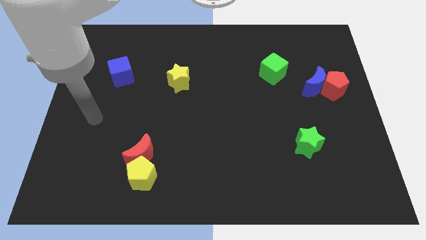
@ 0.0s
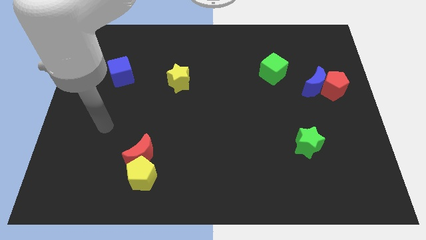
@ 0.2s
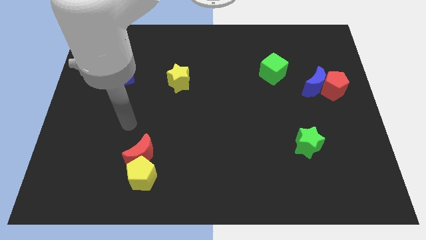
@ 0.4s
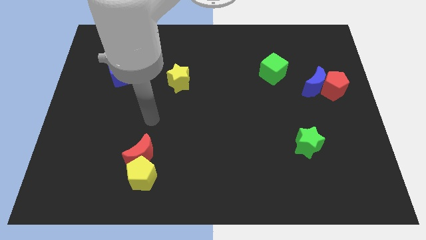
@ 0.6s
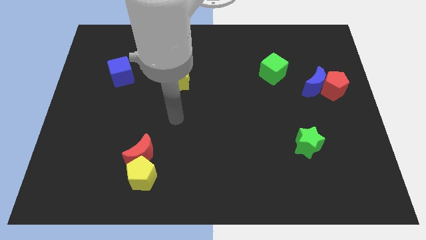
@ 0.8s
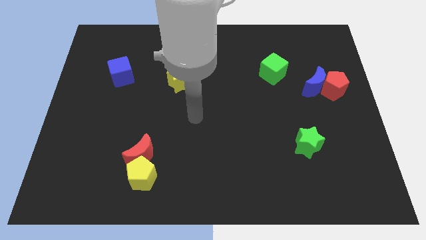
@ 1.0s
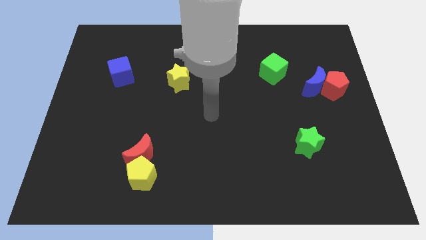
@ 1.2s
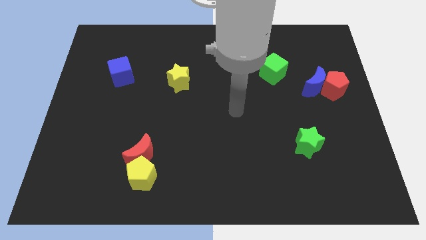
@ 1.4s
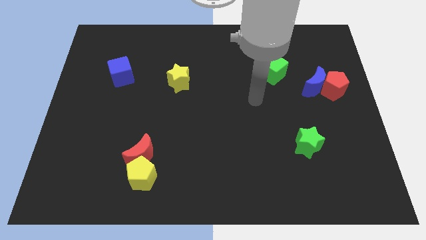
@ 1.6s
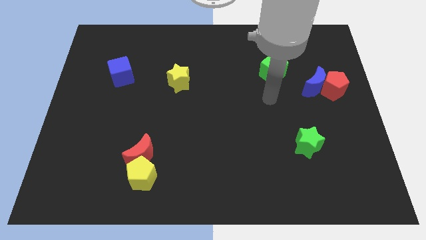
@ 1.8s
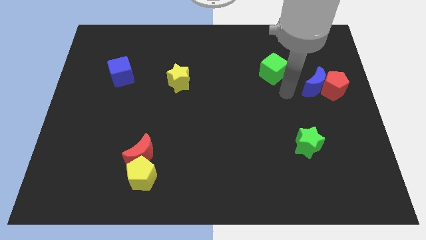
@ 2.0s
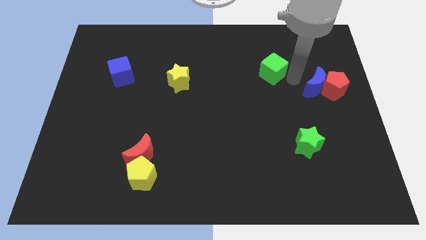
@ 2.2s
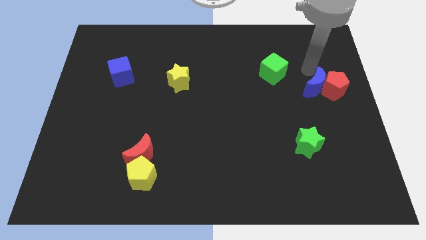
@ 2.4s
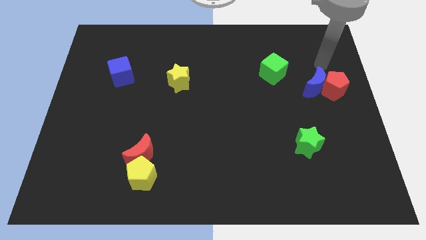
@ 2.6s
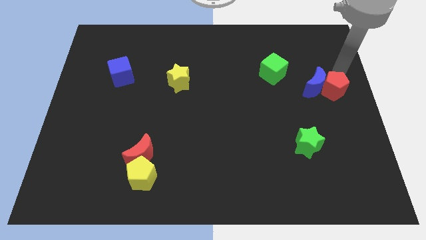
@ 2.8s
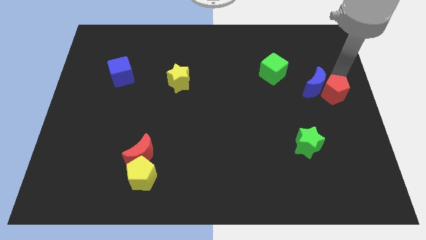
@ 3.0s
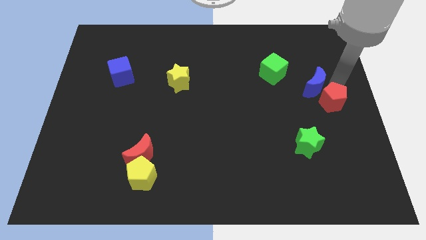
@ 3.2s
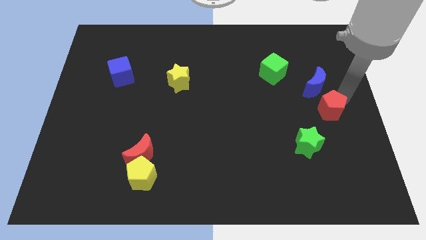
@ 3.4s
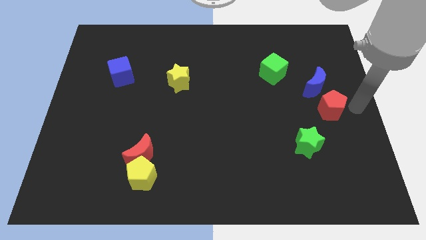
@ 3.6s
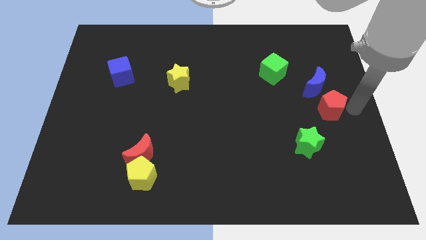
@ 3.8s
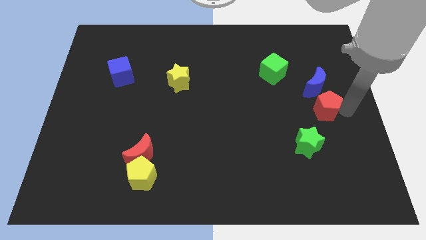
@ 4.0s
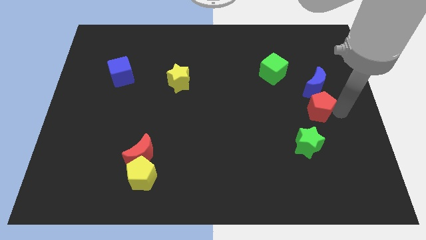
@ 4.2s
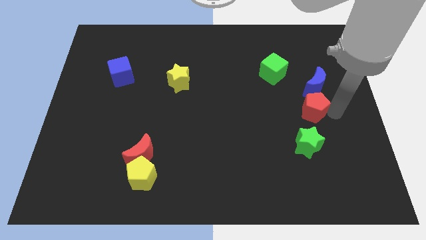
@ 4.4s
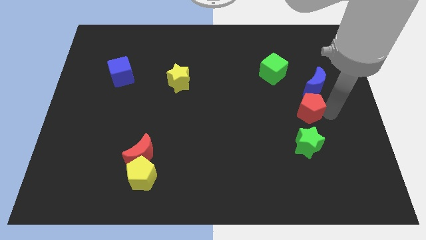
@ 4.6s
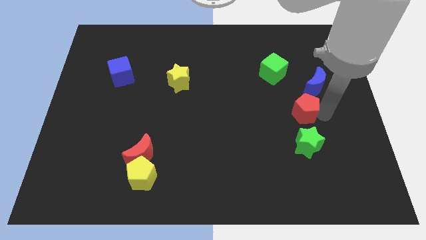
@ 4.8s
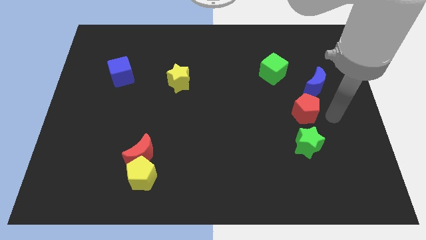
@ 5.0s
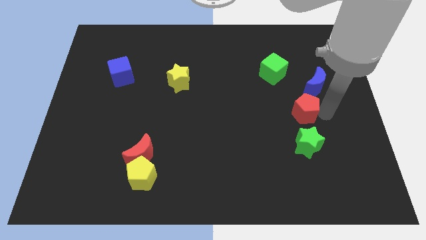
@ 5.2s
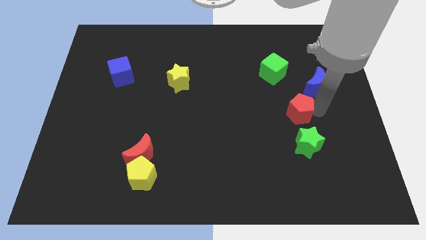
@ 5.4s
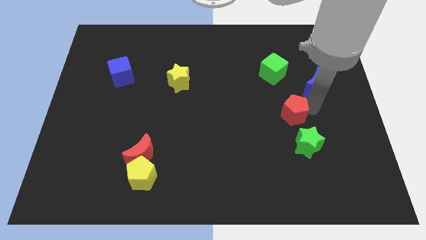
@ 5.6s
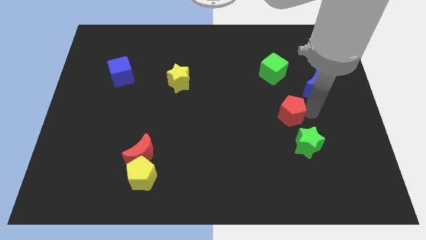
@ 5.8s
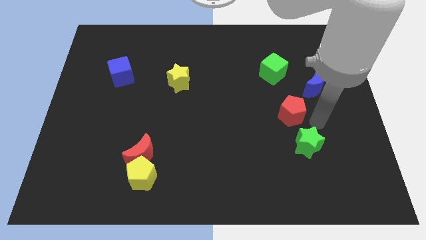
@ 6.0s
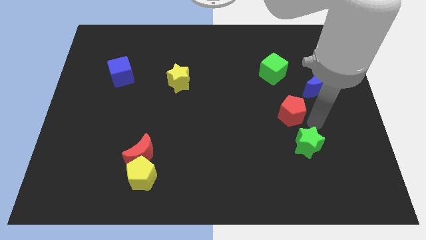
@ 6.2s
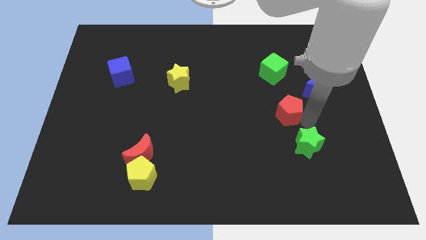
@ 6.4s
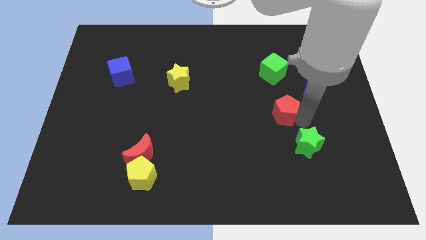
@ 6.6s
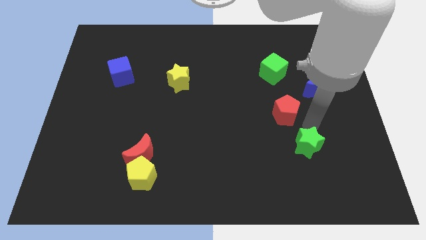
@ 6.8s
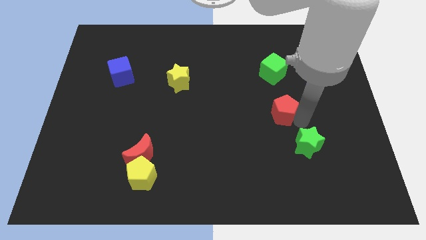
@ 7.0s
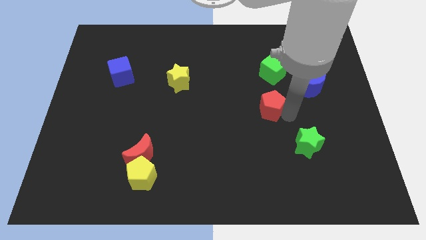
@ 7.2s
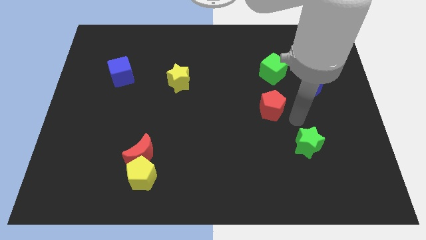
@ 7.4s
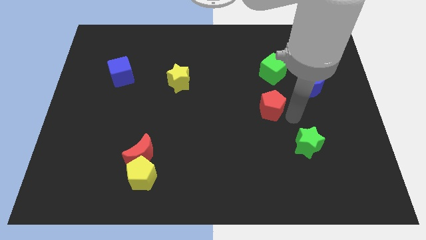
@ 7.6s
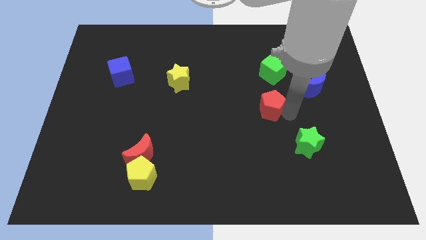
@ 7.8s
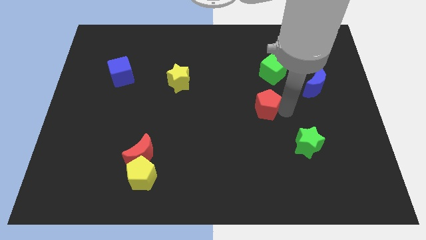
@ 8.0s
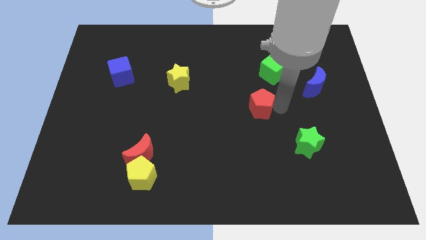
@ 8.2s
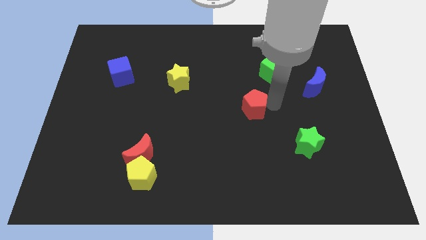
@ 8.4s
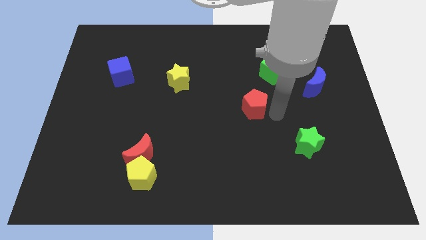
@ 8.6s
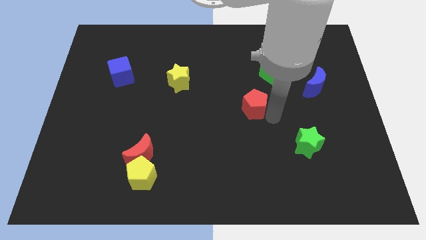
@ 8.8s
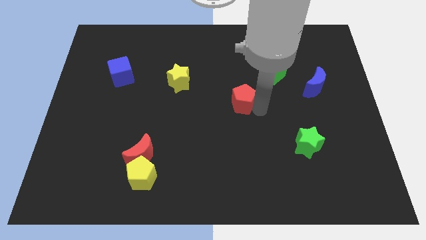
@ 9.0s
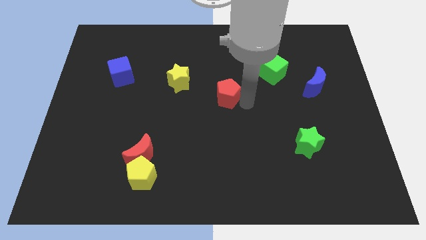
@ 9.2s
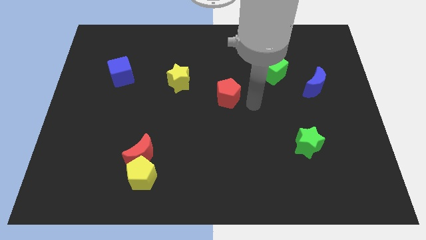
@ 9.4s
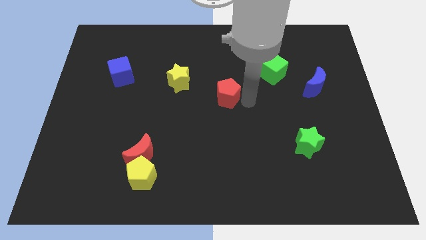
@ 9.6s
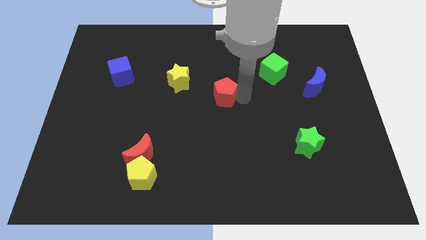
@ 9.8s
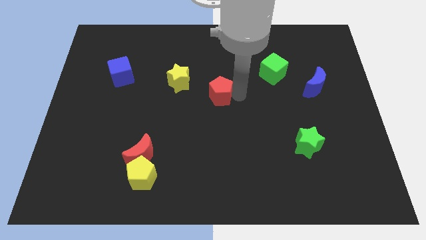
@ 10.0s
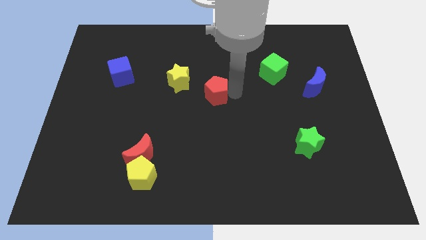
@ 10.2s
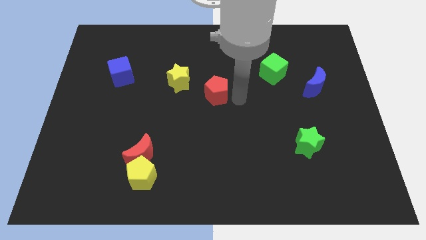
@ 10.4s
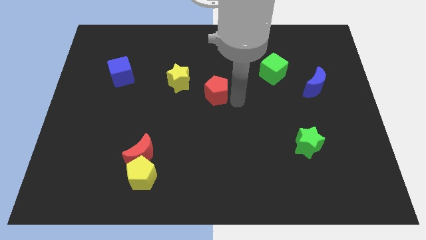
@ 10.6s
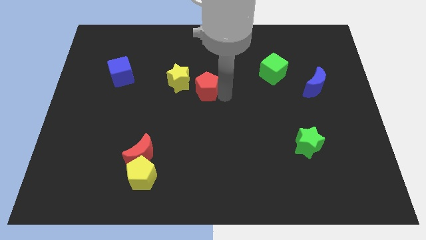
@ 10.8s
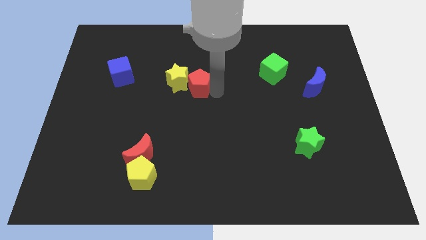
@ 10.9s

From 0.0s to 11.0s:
move the red pentagon close to the yellow star

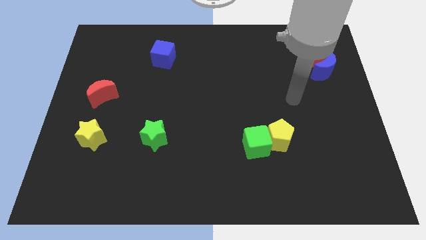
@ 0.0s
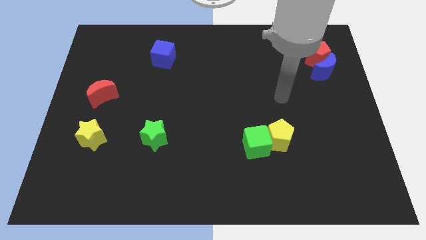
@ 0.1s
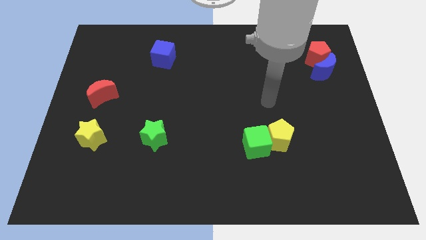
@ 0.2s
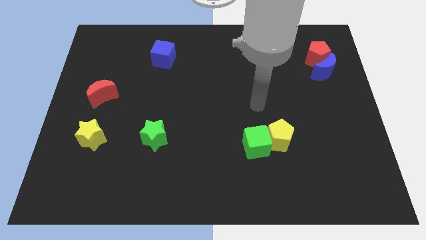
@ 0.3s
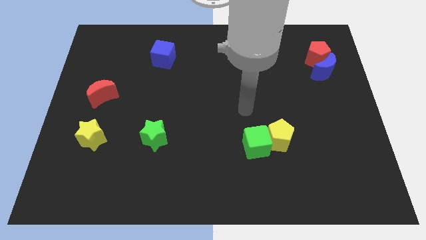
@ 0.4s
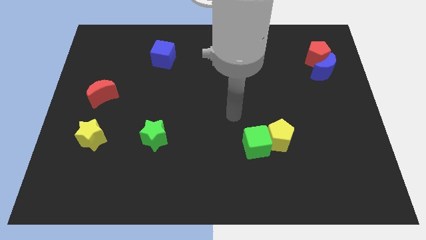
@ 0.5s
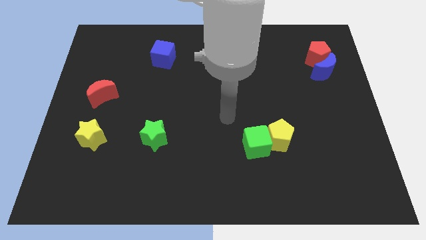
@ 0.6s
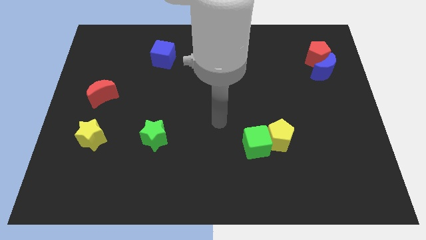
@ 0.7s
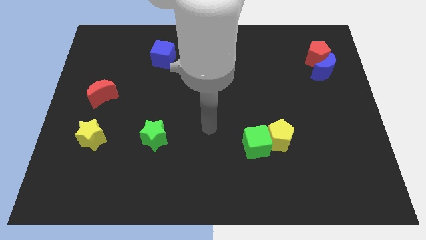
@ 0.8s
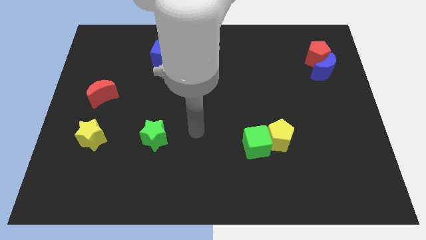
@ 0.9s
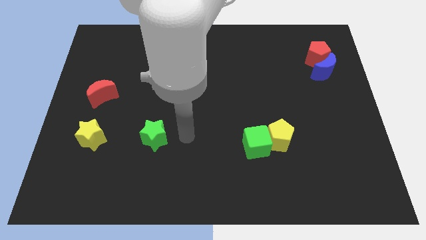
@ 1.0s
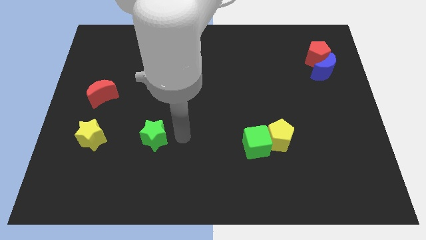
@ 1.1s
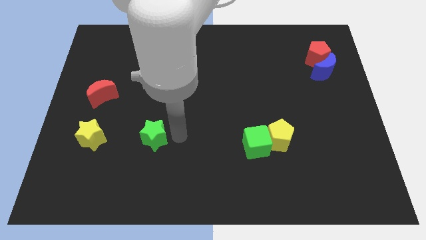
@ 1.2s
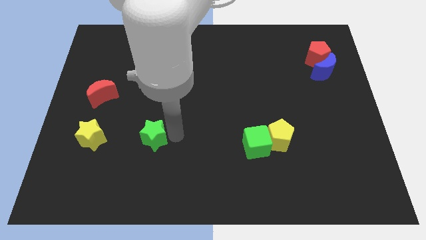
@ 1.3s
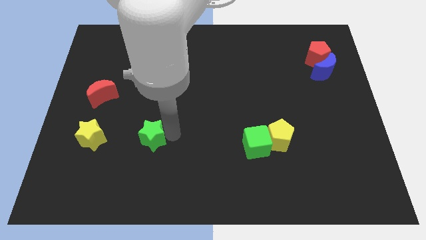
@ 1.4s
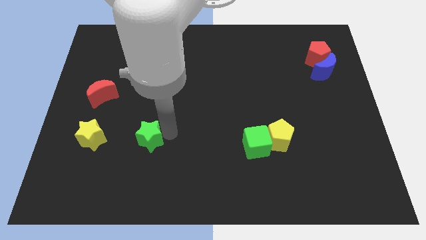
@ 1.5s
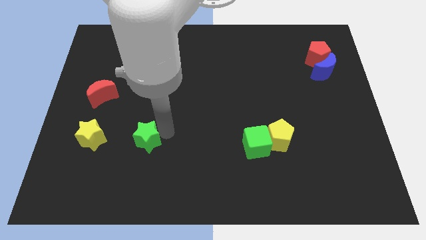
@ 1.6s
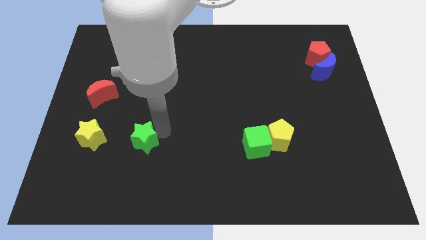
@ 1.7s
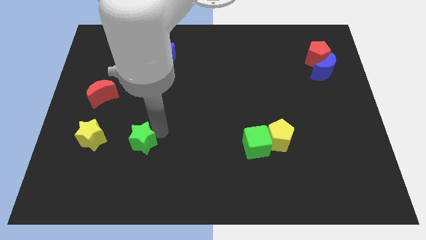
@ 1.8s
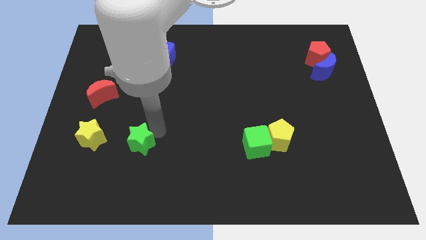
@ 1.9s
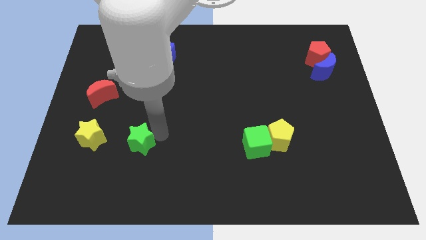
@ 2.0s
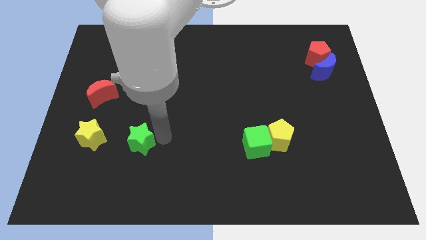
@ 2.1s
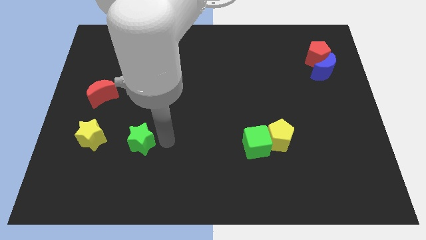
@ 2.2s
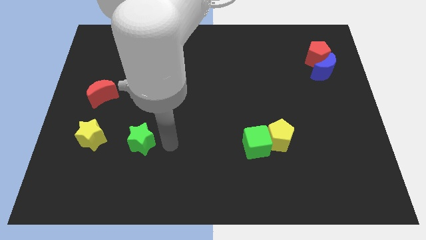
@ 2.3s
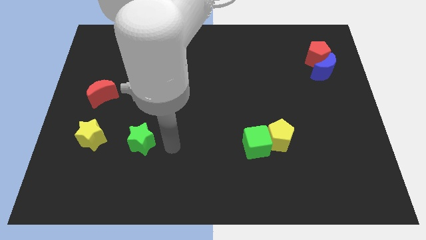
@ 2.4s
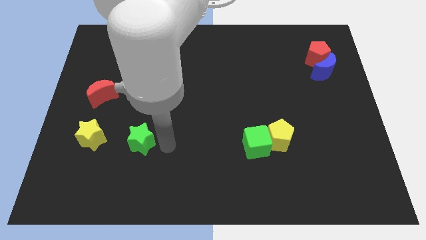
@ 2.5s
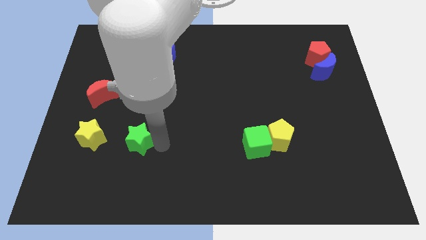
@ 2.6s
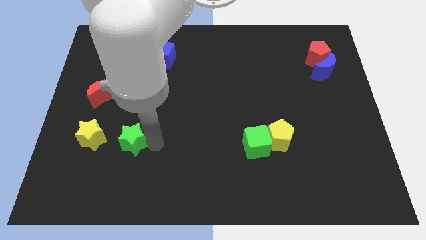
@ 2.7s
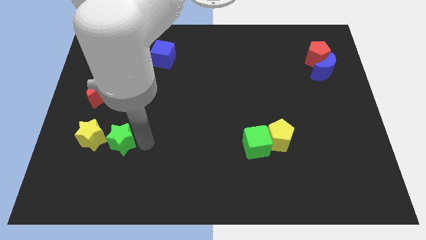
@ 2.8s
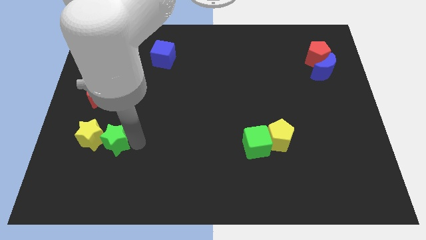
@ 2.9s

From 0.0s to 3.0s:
push the green star next to the yellow star
